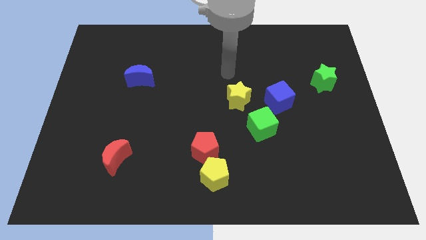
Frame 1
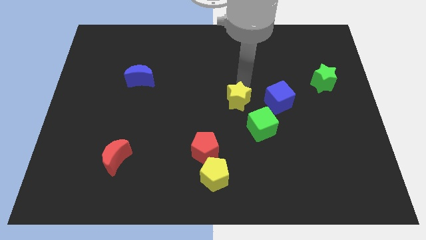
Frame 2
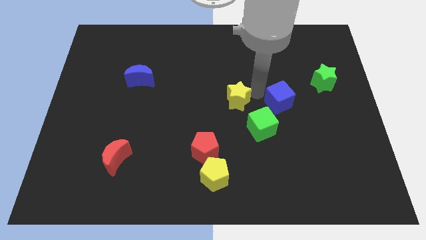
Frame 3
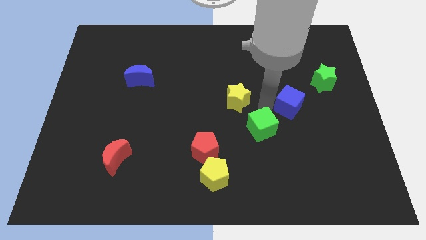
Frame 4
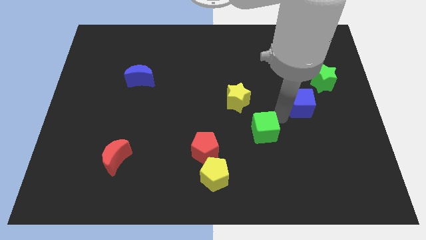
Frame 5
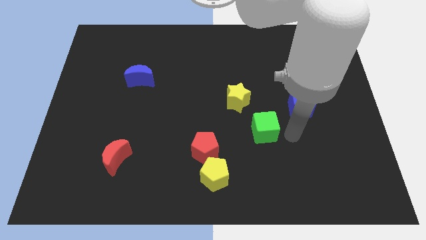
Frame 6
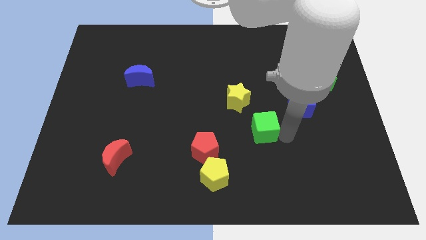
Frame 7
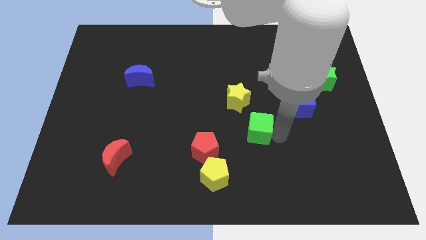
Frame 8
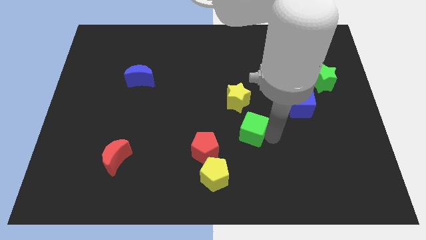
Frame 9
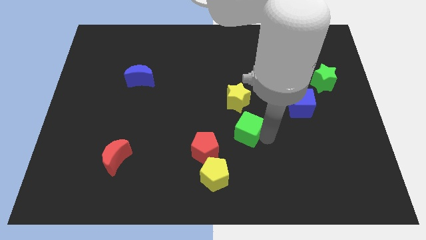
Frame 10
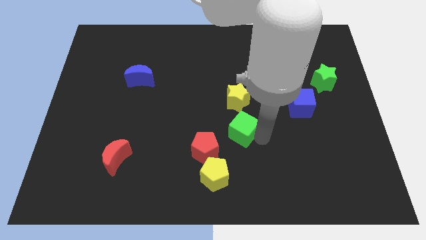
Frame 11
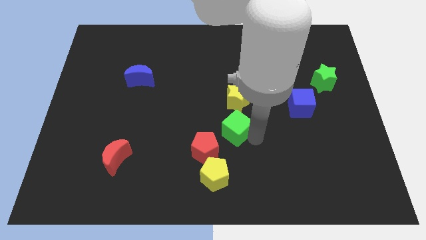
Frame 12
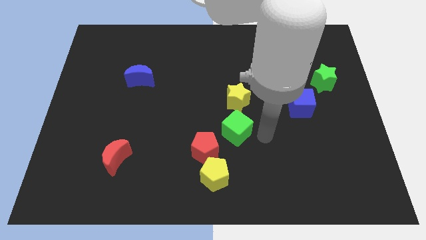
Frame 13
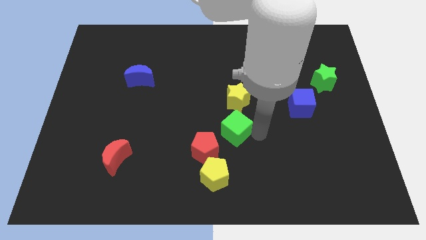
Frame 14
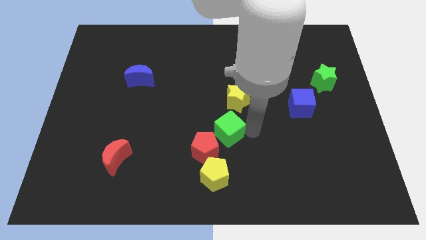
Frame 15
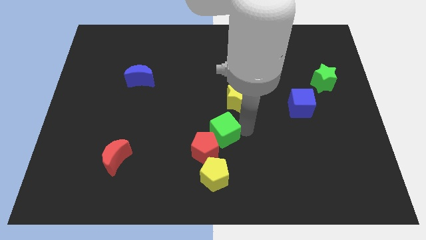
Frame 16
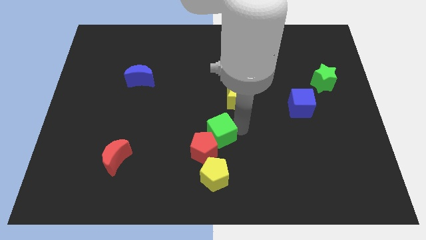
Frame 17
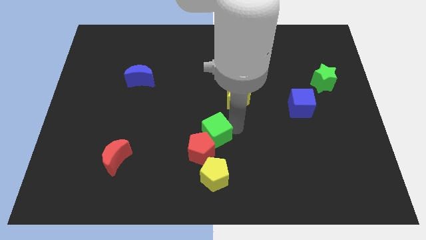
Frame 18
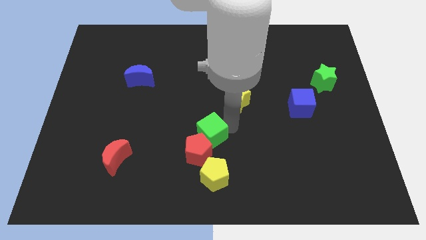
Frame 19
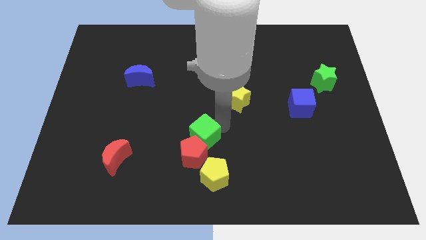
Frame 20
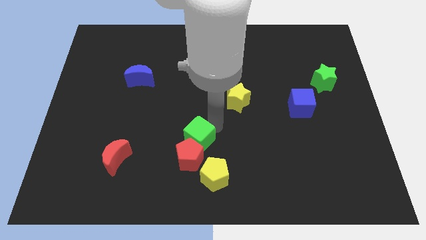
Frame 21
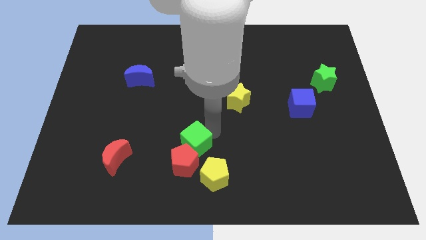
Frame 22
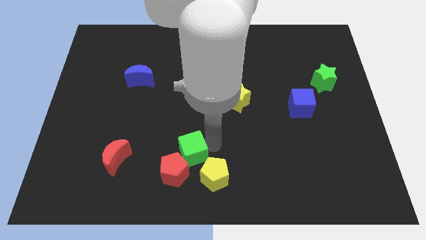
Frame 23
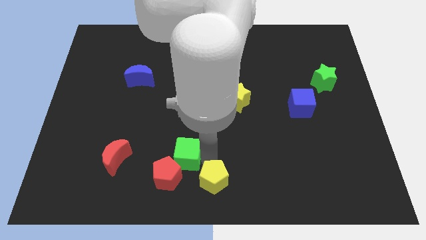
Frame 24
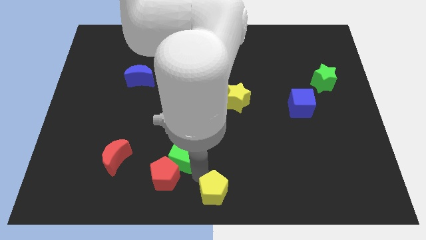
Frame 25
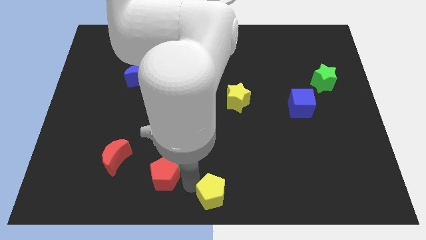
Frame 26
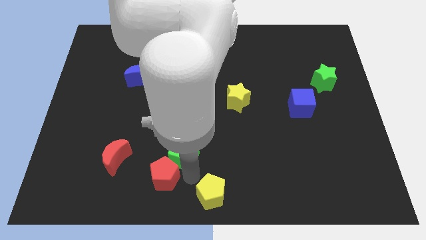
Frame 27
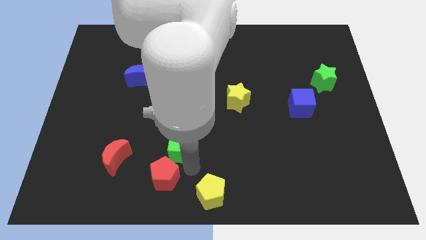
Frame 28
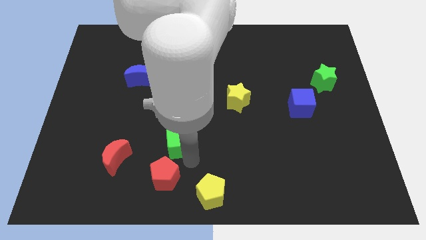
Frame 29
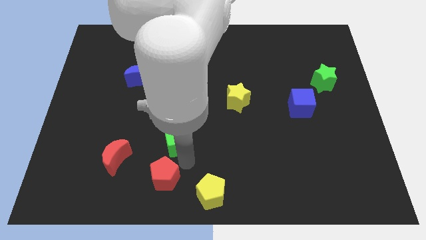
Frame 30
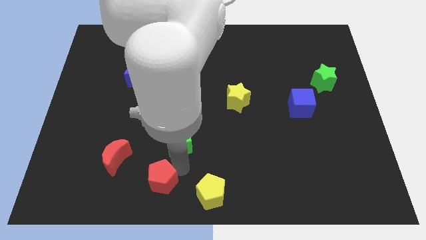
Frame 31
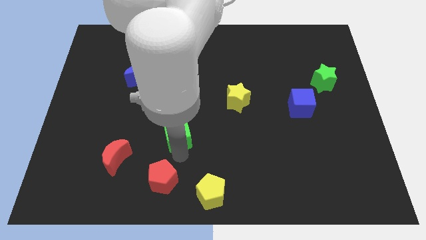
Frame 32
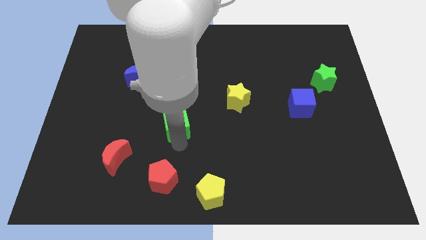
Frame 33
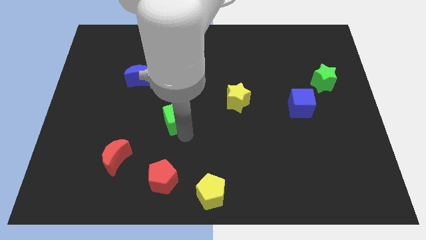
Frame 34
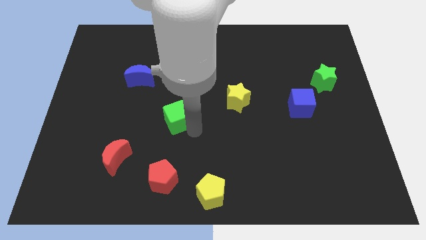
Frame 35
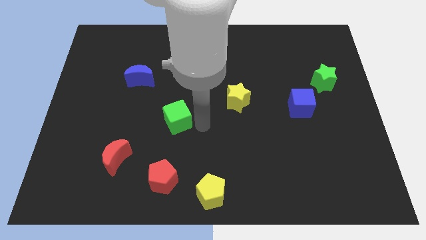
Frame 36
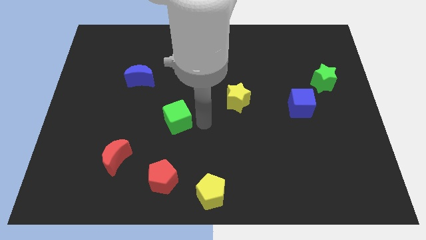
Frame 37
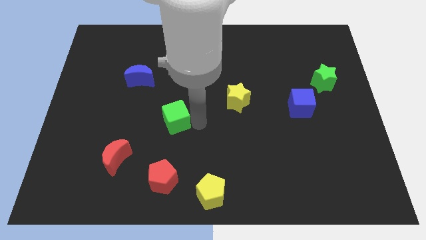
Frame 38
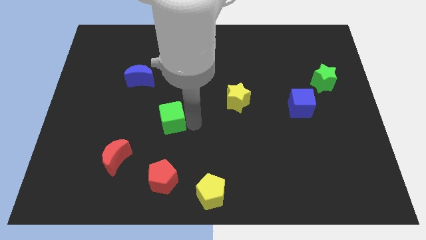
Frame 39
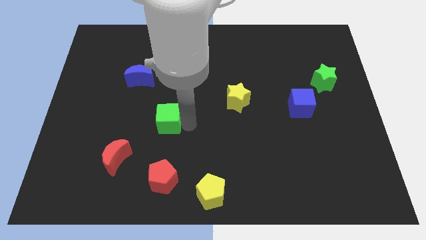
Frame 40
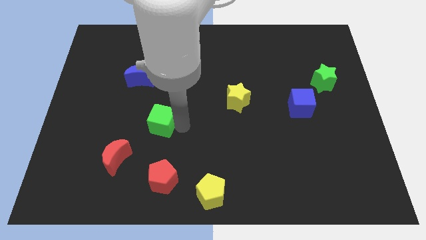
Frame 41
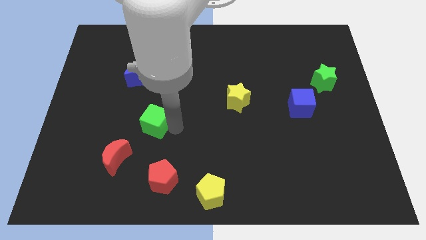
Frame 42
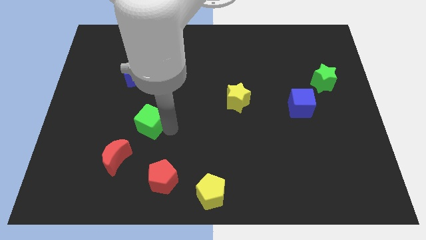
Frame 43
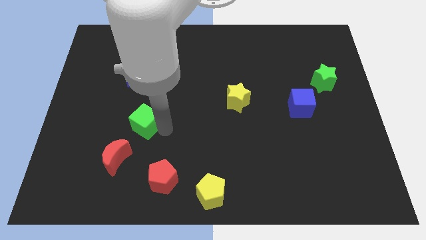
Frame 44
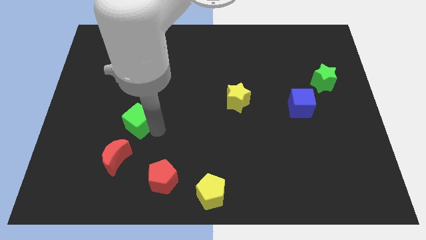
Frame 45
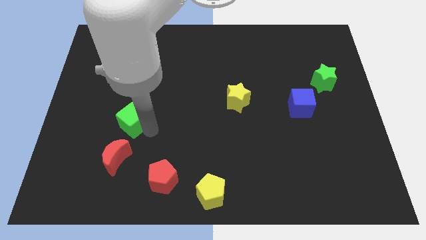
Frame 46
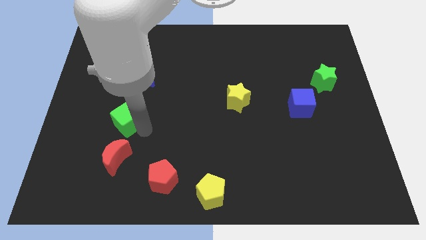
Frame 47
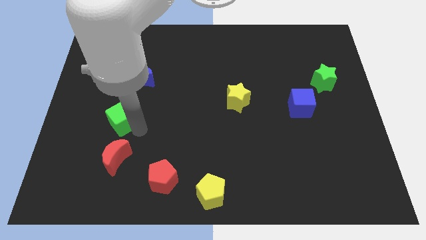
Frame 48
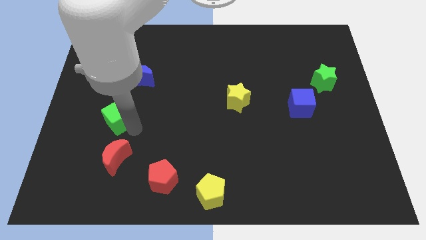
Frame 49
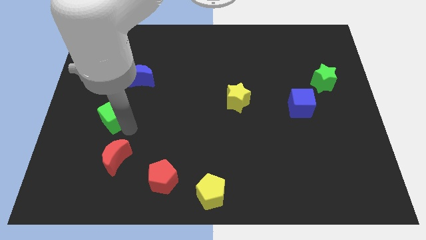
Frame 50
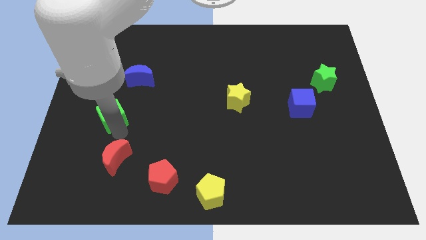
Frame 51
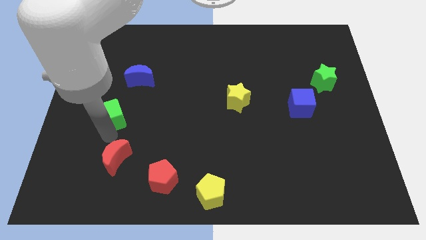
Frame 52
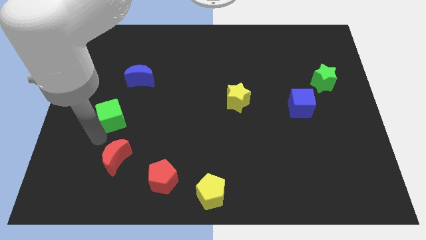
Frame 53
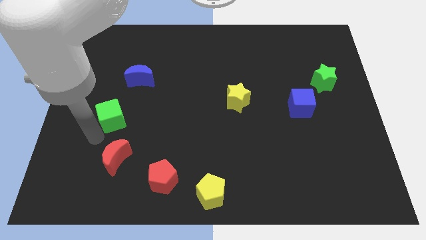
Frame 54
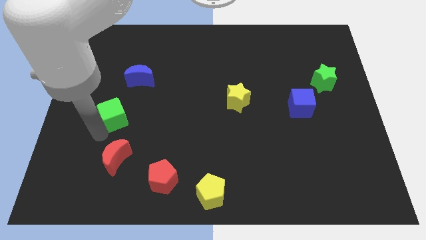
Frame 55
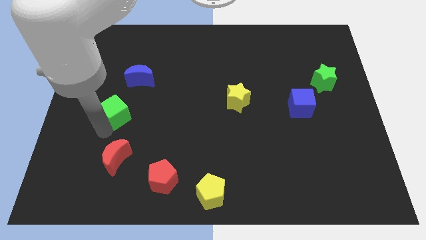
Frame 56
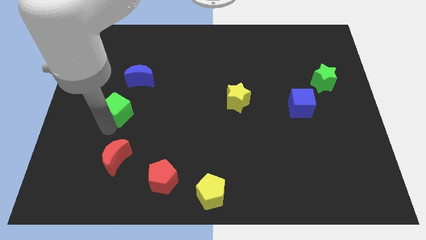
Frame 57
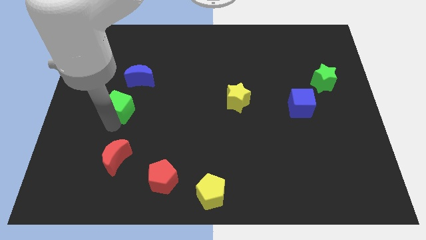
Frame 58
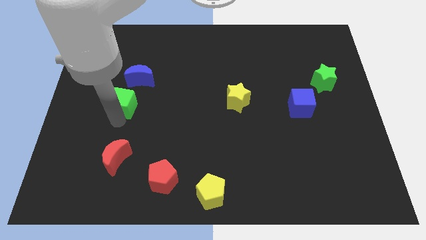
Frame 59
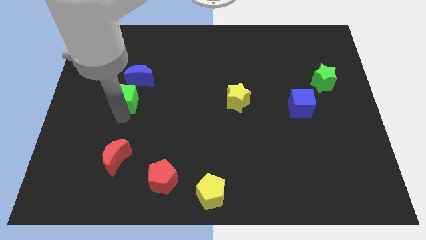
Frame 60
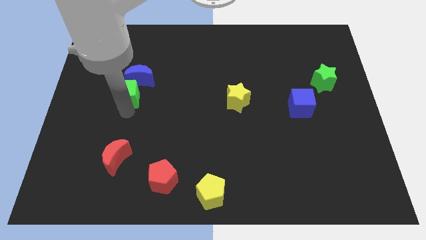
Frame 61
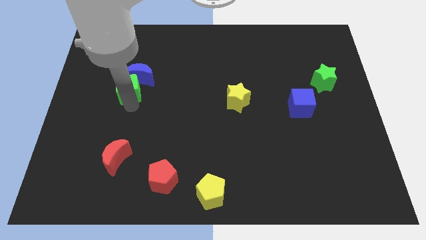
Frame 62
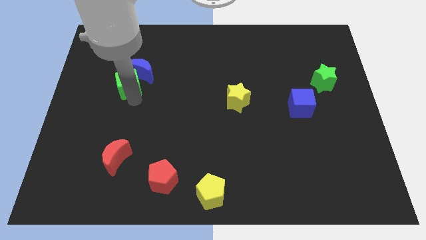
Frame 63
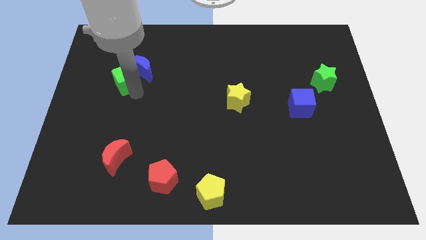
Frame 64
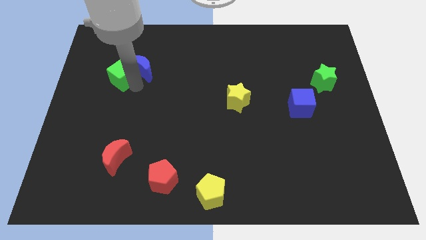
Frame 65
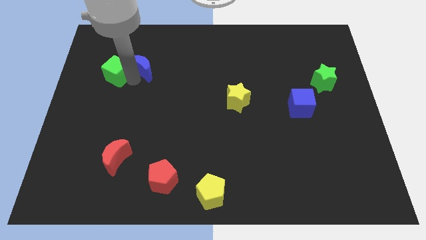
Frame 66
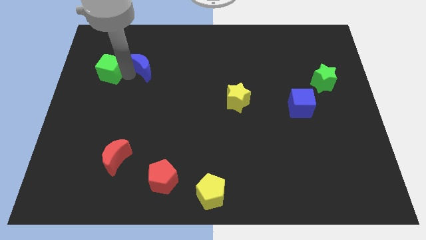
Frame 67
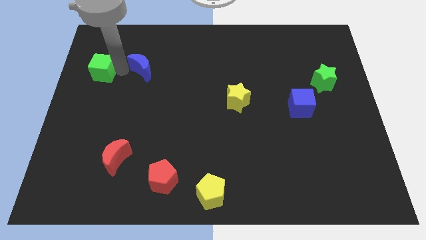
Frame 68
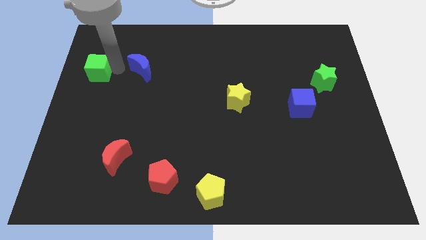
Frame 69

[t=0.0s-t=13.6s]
put the green cube to the left side
